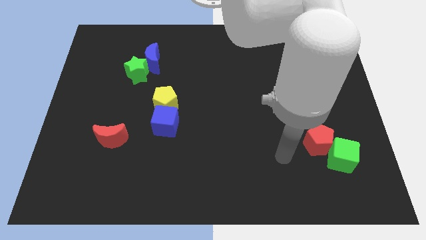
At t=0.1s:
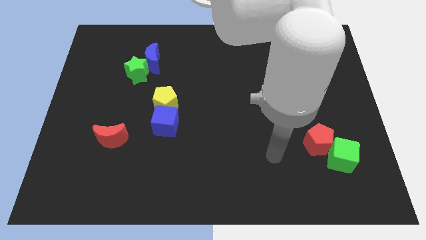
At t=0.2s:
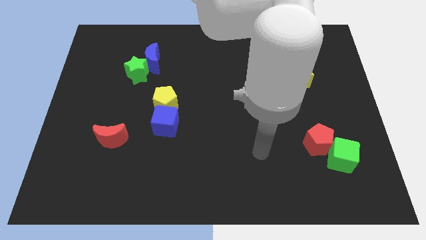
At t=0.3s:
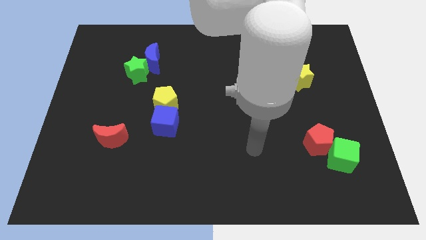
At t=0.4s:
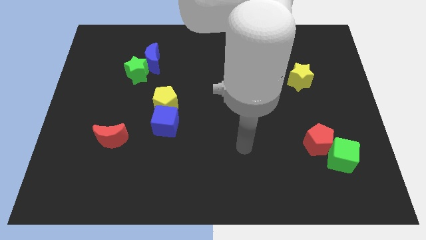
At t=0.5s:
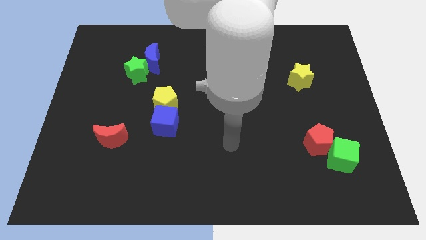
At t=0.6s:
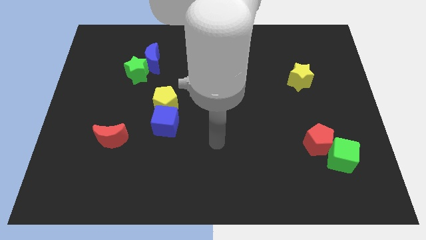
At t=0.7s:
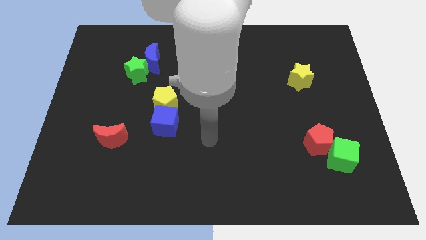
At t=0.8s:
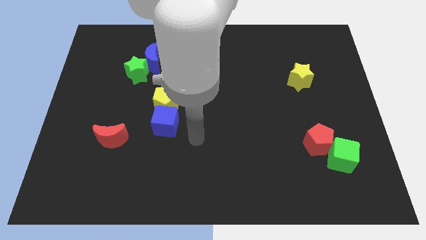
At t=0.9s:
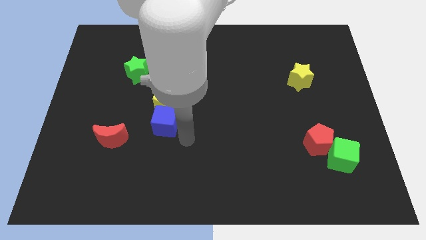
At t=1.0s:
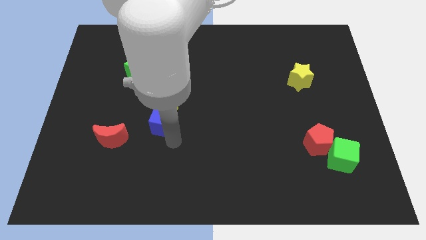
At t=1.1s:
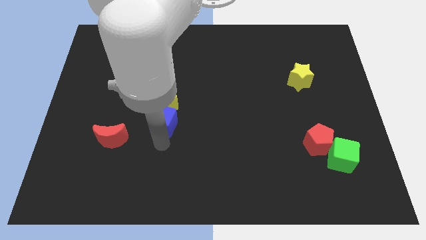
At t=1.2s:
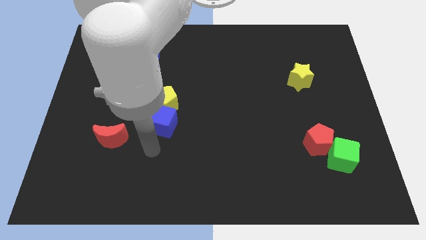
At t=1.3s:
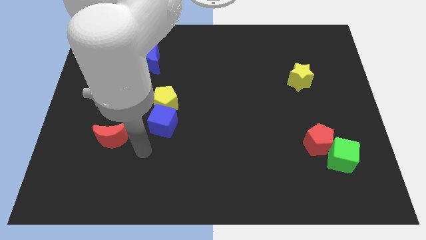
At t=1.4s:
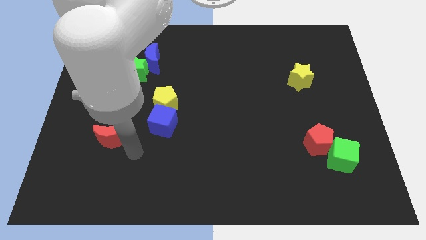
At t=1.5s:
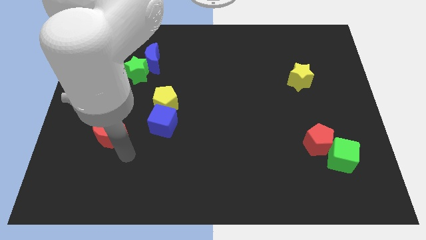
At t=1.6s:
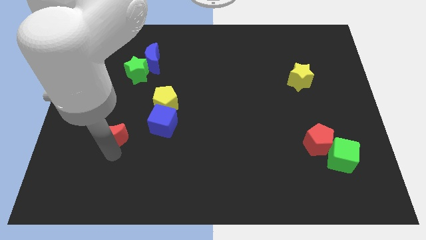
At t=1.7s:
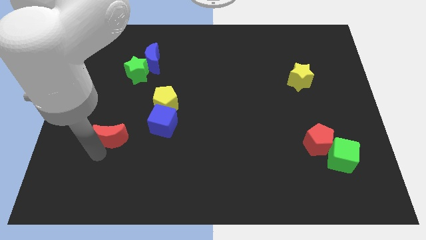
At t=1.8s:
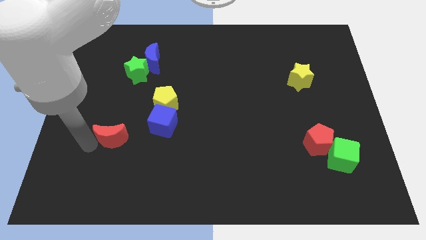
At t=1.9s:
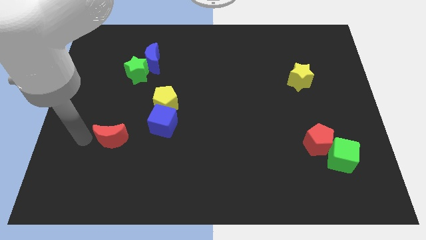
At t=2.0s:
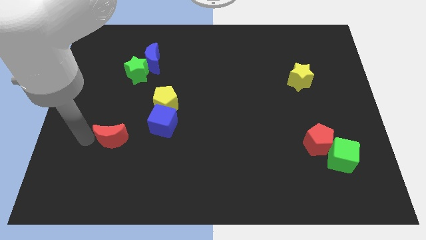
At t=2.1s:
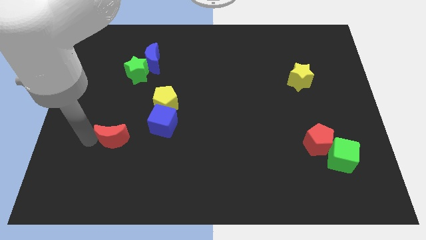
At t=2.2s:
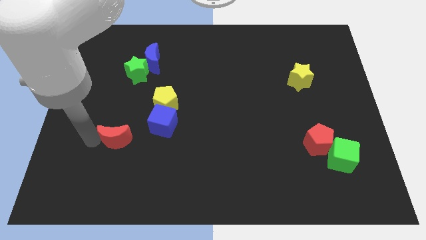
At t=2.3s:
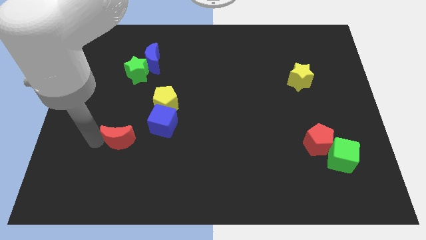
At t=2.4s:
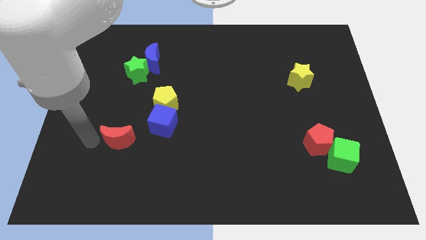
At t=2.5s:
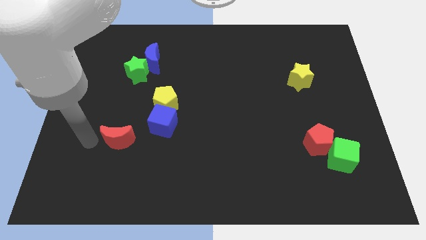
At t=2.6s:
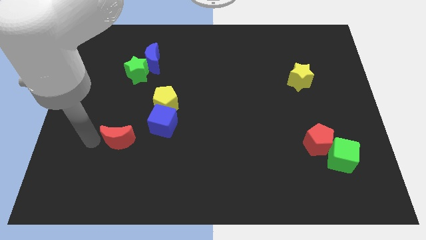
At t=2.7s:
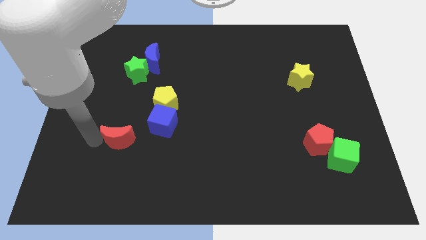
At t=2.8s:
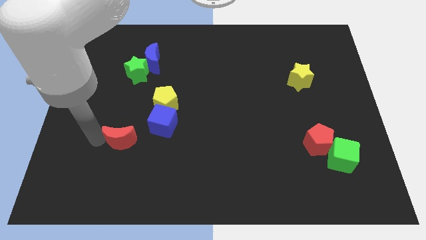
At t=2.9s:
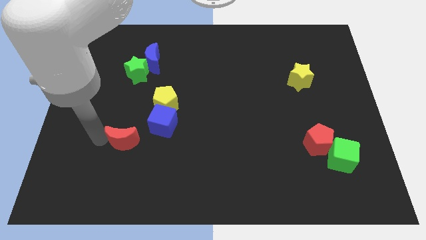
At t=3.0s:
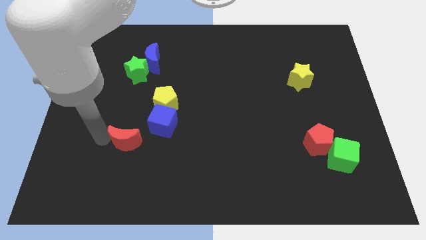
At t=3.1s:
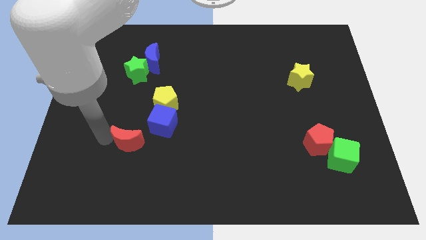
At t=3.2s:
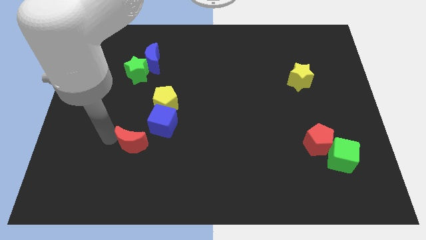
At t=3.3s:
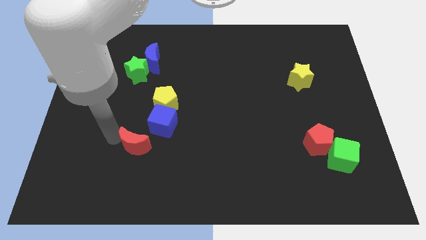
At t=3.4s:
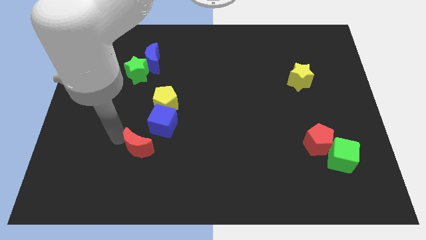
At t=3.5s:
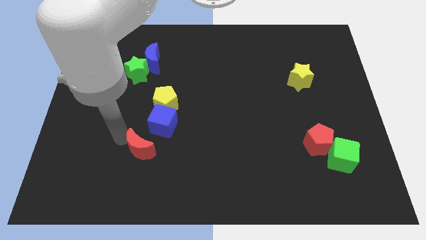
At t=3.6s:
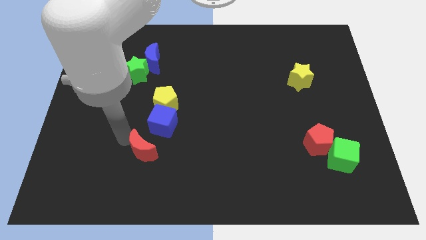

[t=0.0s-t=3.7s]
slightly move the red moon right

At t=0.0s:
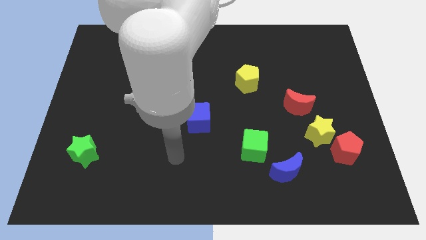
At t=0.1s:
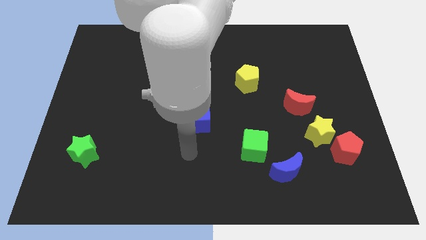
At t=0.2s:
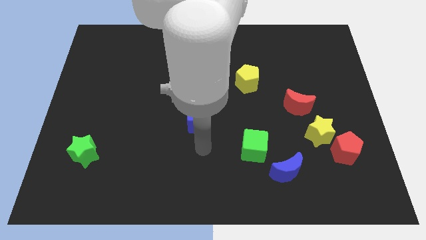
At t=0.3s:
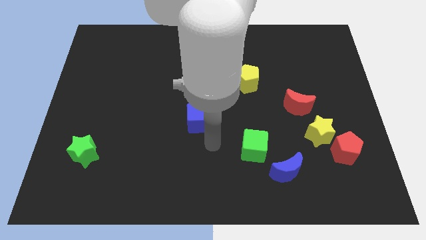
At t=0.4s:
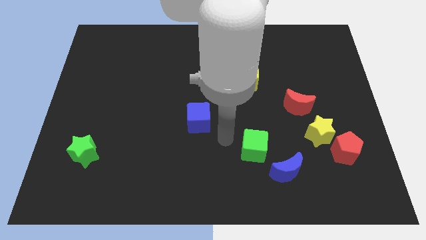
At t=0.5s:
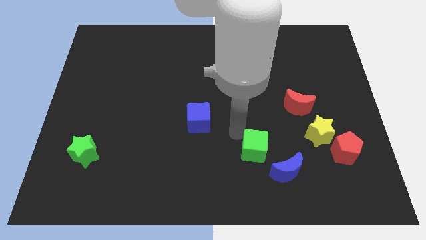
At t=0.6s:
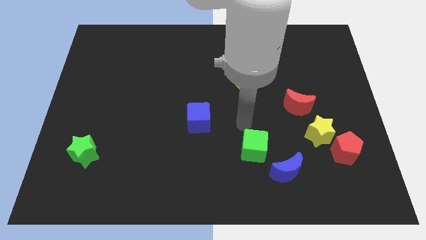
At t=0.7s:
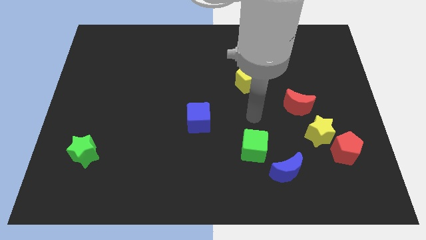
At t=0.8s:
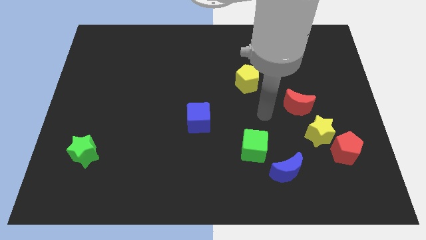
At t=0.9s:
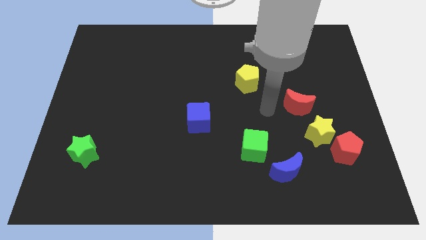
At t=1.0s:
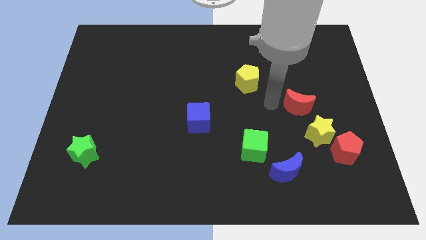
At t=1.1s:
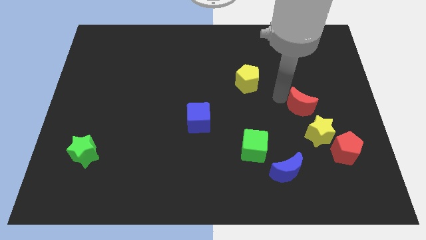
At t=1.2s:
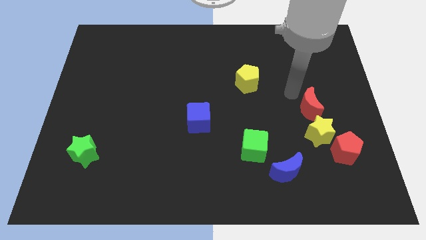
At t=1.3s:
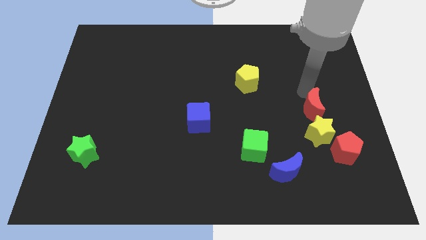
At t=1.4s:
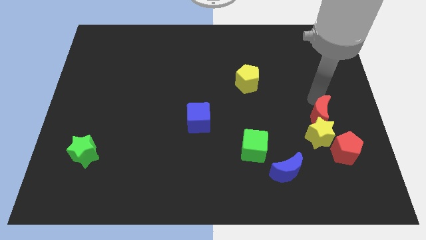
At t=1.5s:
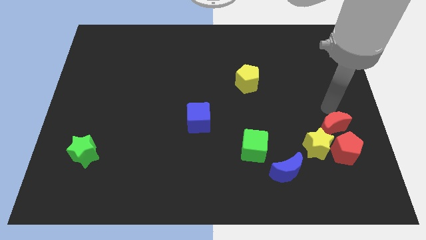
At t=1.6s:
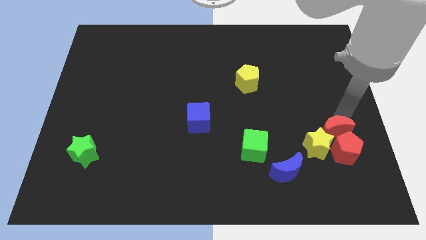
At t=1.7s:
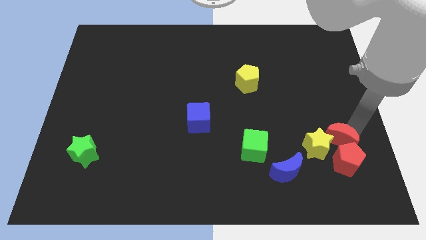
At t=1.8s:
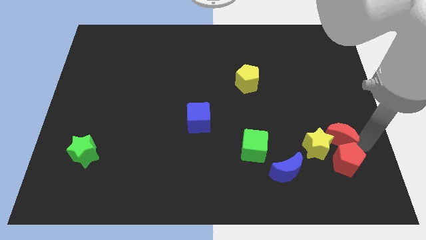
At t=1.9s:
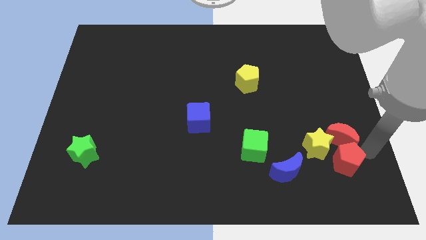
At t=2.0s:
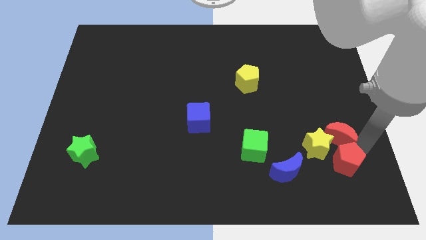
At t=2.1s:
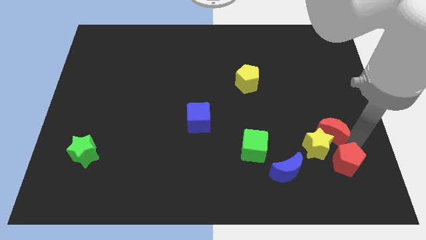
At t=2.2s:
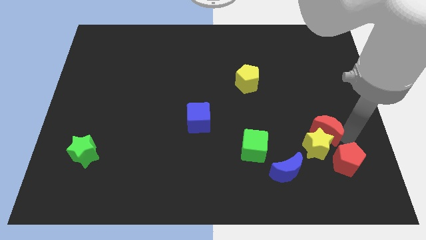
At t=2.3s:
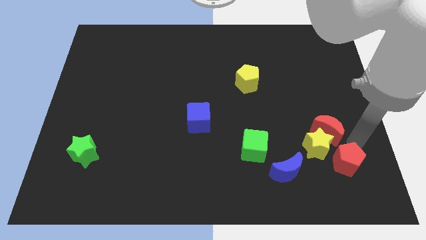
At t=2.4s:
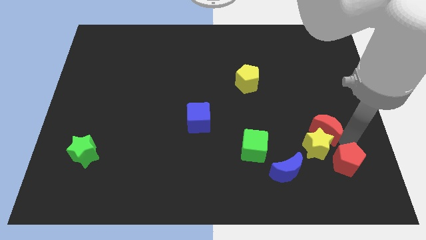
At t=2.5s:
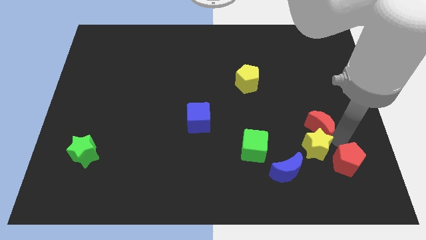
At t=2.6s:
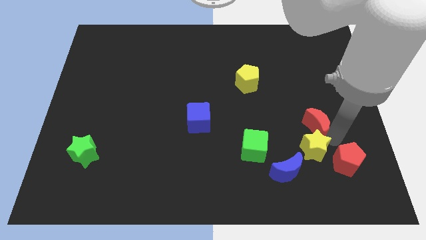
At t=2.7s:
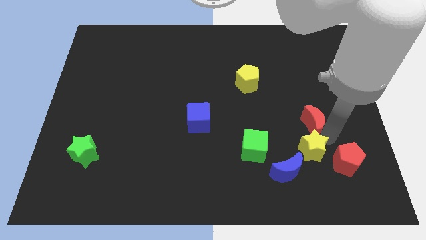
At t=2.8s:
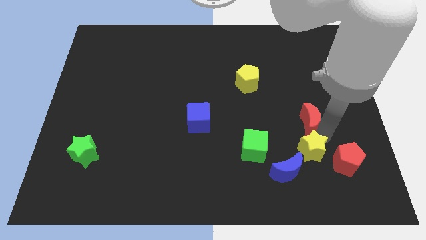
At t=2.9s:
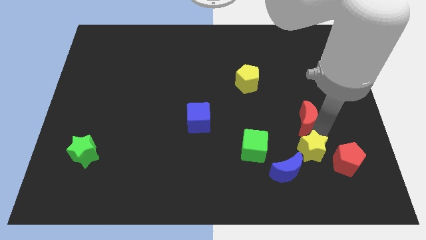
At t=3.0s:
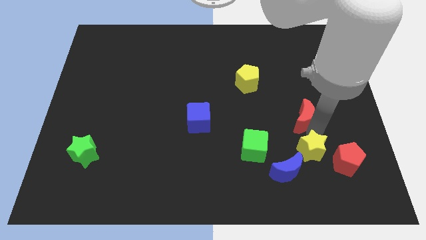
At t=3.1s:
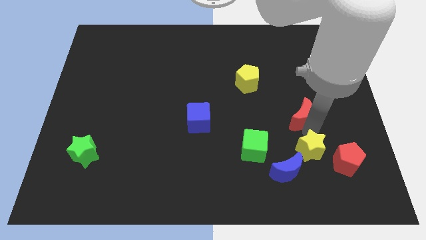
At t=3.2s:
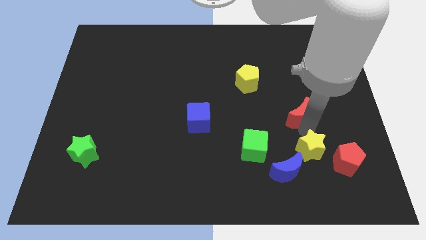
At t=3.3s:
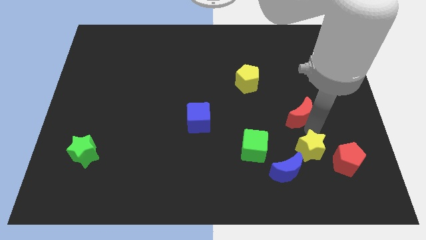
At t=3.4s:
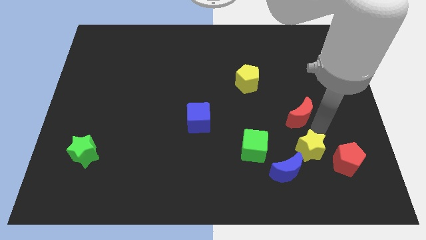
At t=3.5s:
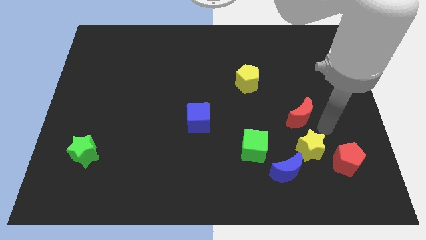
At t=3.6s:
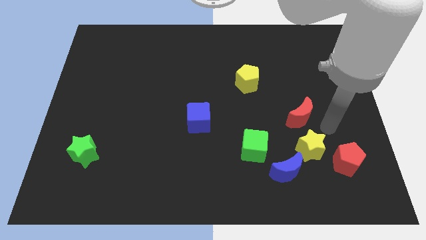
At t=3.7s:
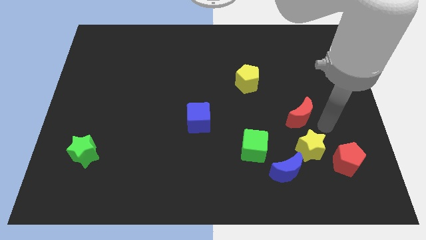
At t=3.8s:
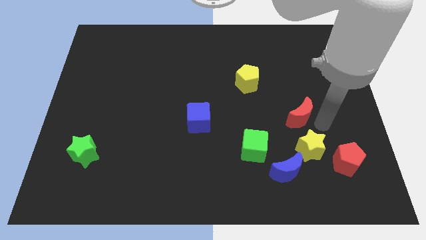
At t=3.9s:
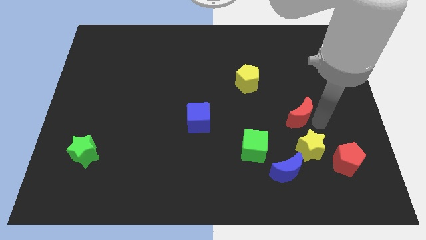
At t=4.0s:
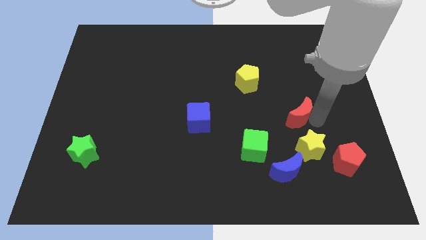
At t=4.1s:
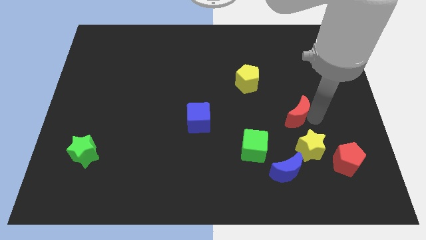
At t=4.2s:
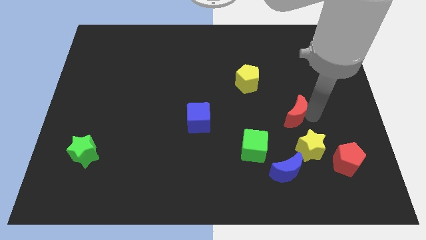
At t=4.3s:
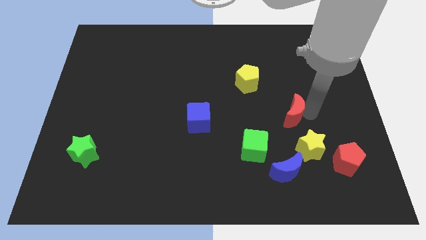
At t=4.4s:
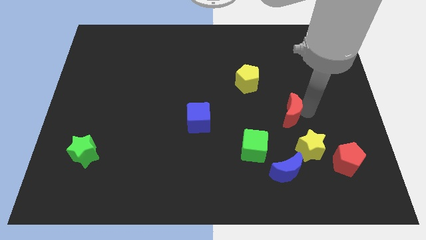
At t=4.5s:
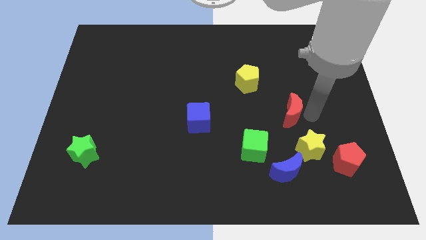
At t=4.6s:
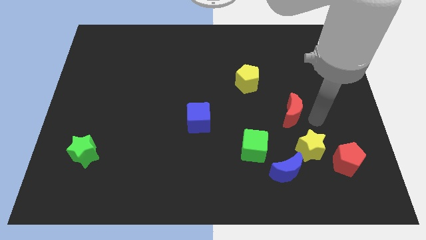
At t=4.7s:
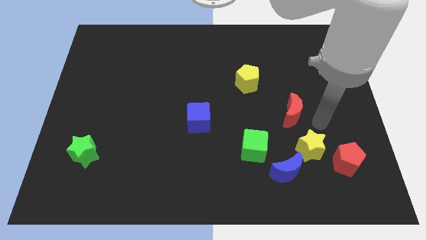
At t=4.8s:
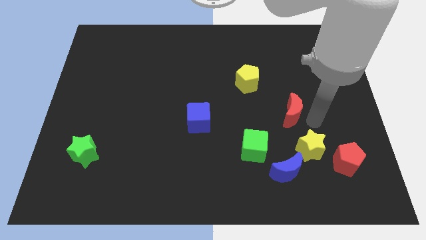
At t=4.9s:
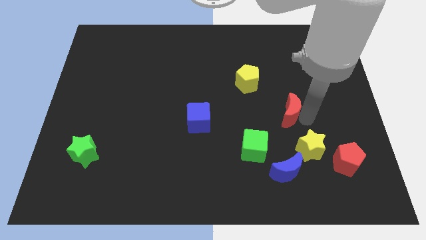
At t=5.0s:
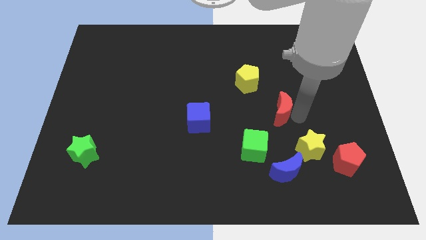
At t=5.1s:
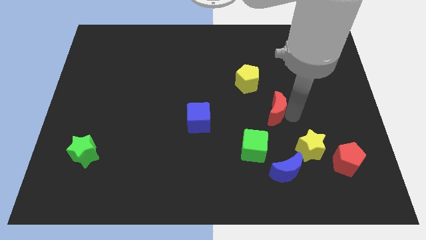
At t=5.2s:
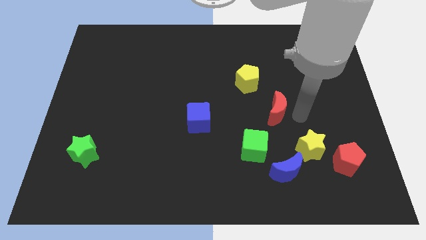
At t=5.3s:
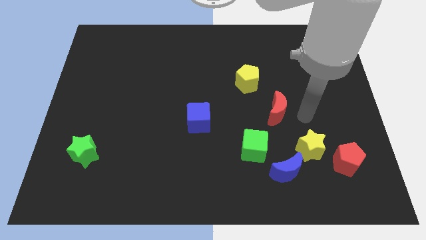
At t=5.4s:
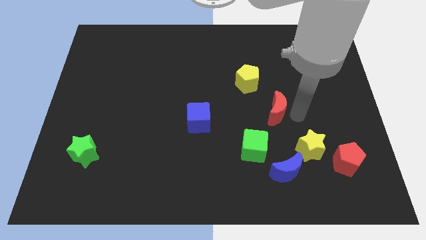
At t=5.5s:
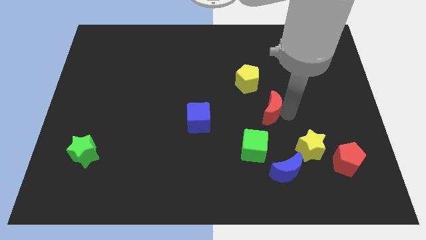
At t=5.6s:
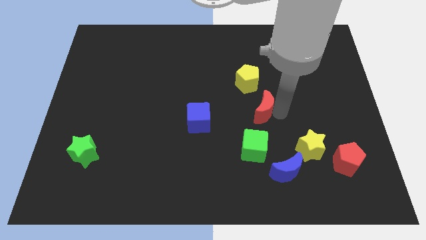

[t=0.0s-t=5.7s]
slightly move the red moon to the left
